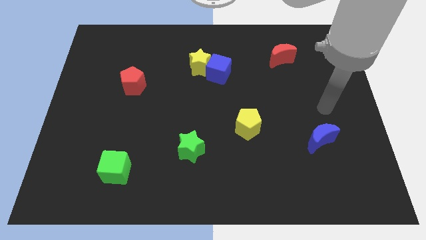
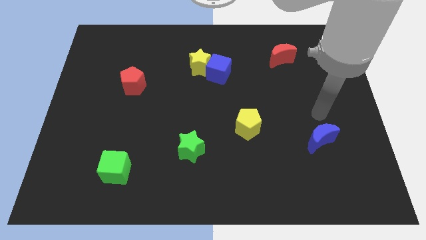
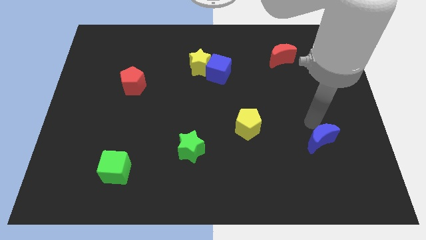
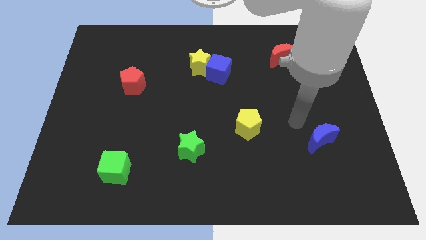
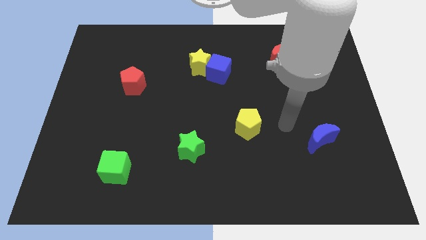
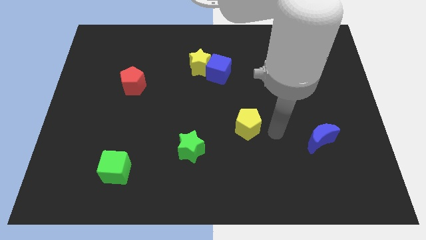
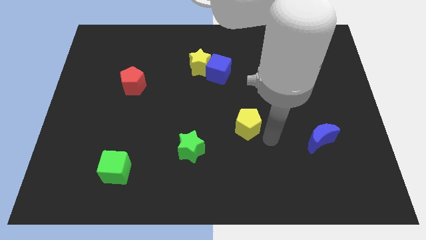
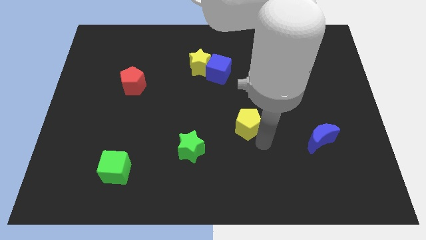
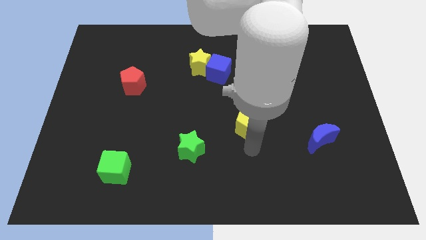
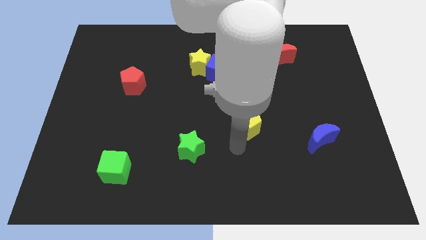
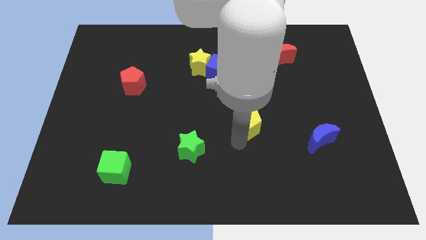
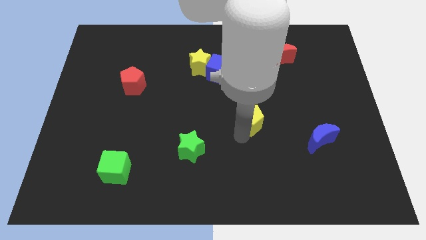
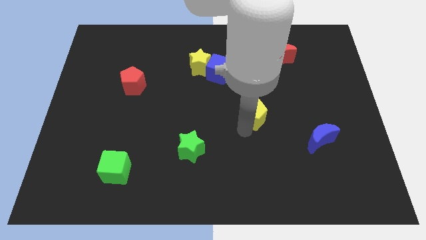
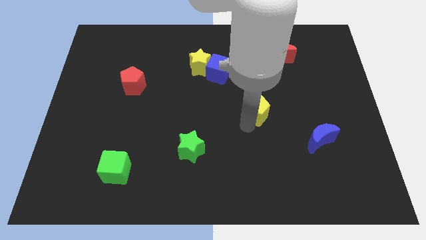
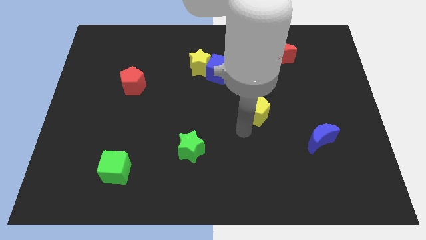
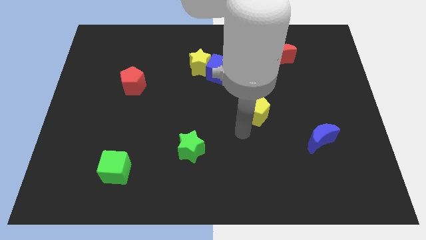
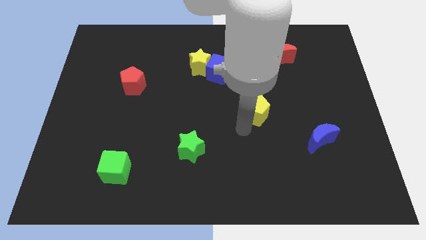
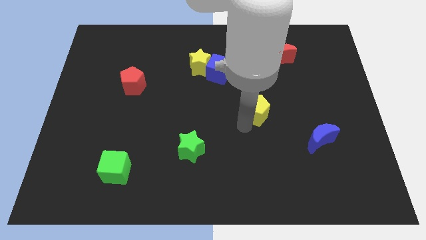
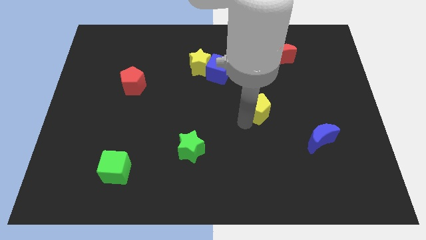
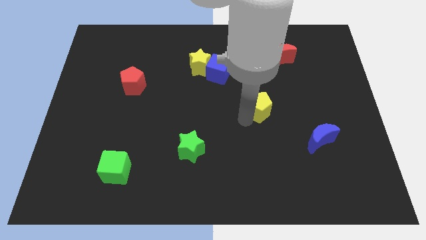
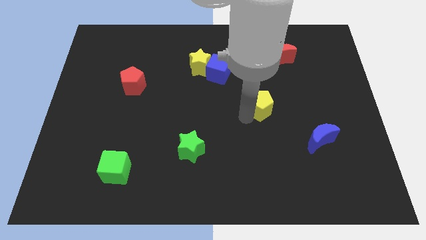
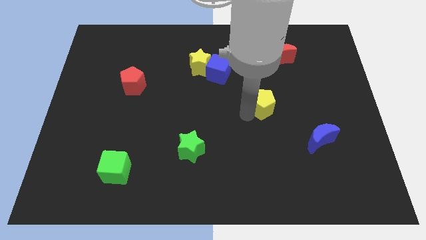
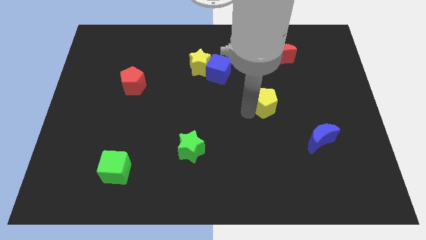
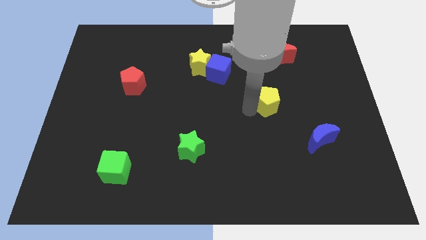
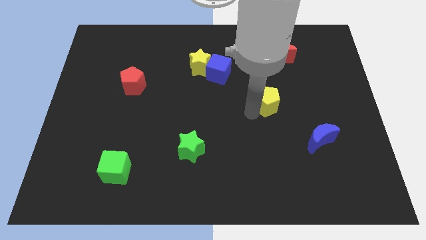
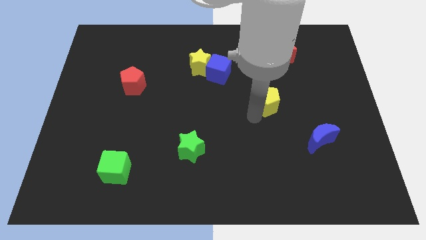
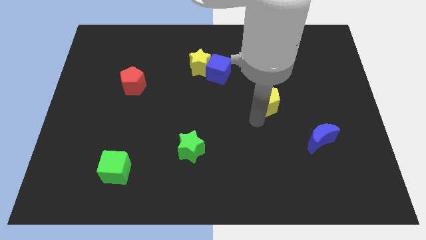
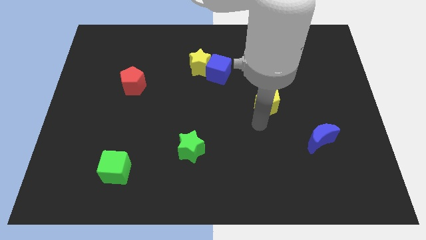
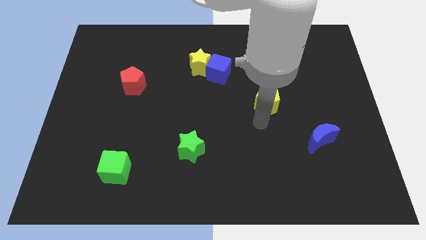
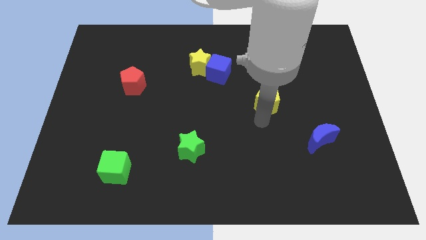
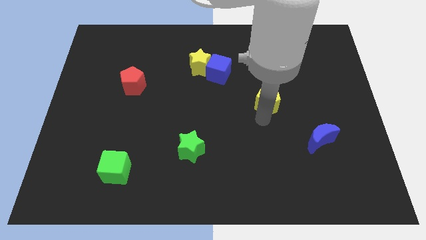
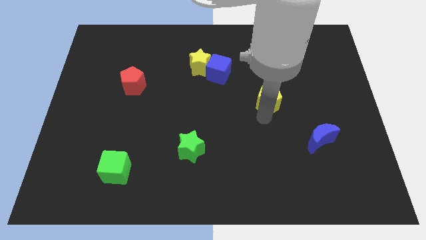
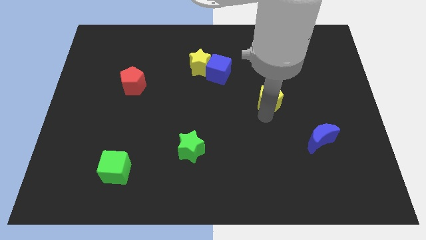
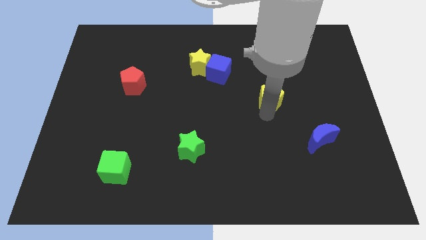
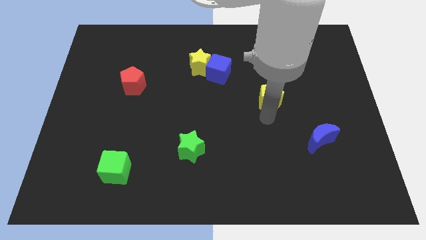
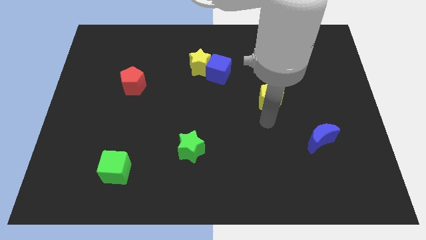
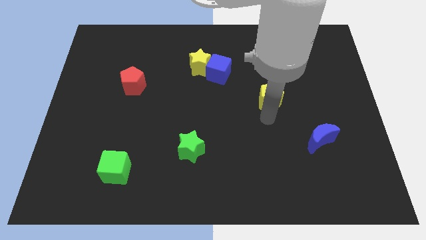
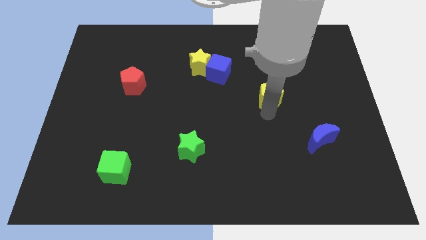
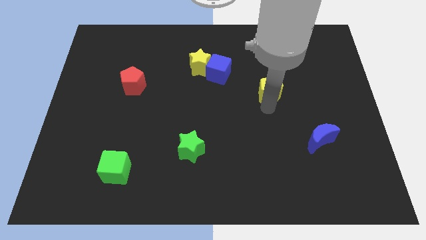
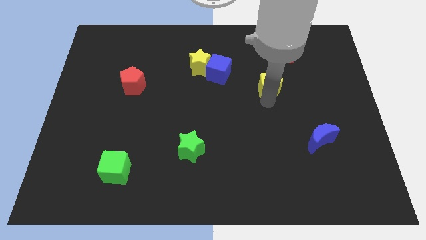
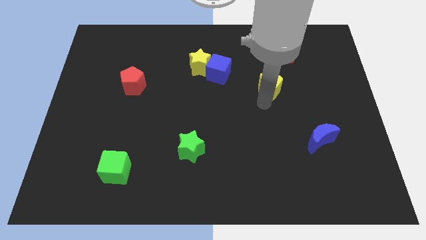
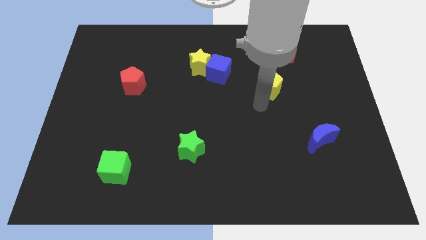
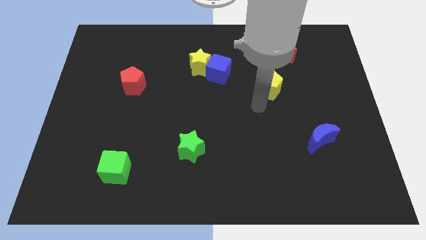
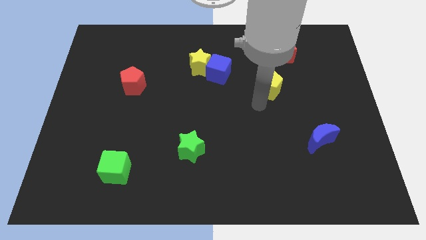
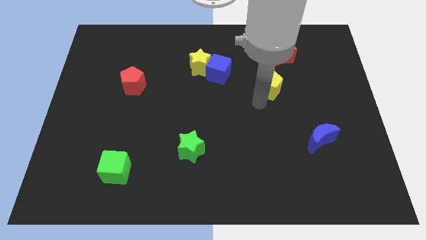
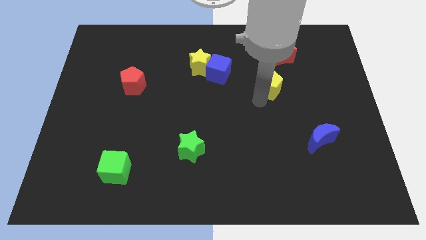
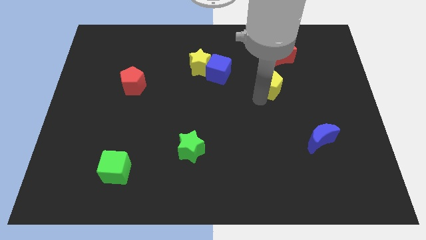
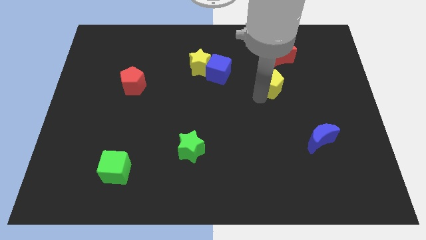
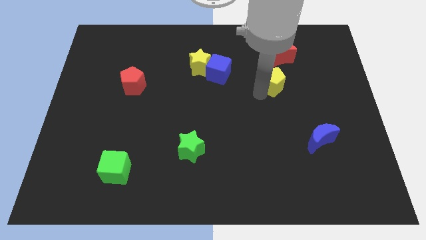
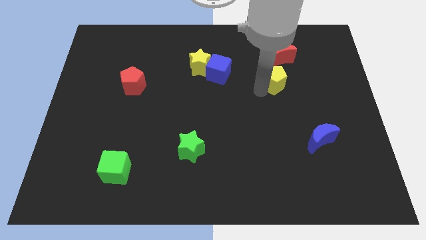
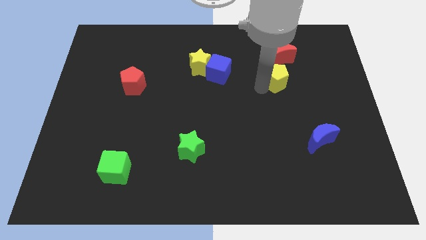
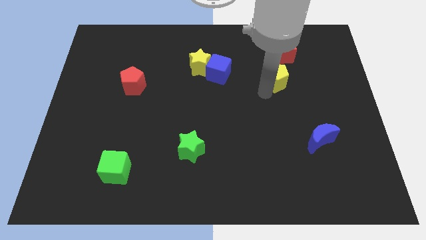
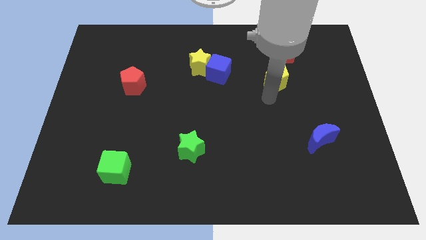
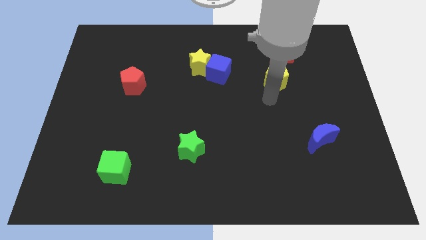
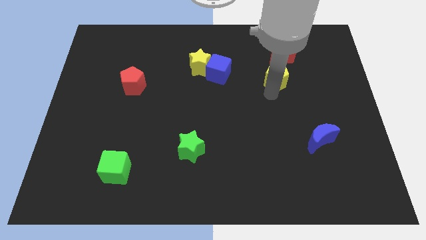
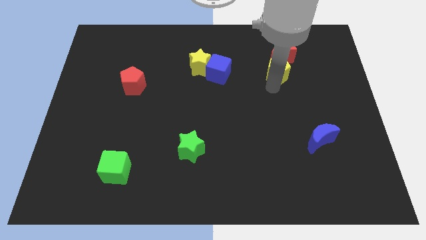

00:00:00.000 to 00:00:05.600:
slide the yellow pentagon to the red moon

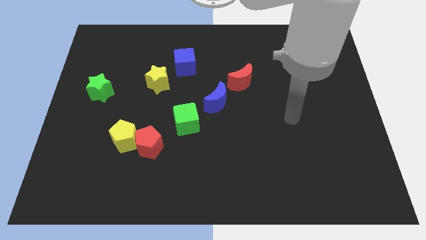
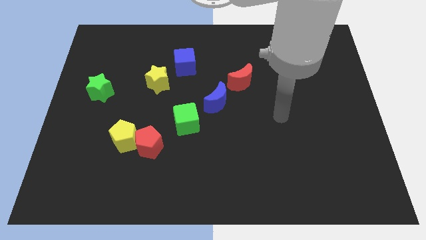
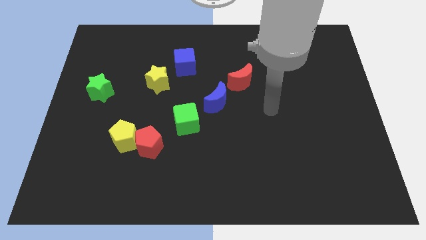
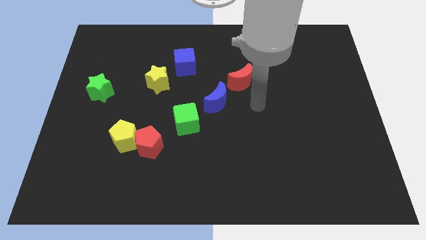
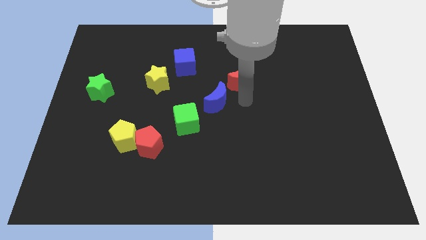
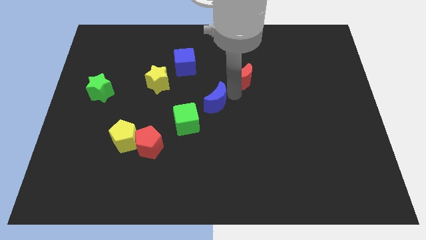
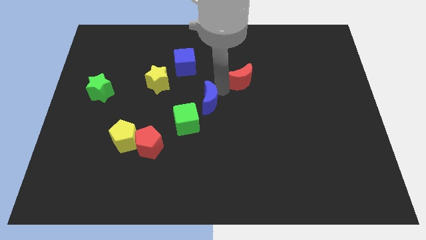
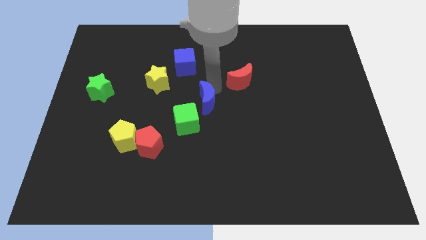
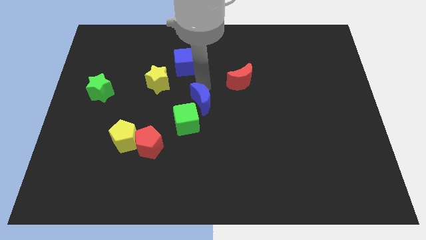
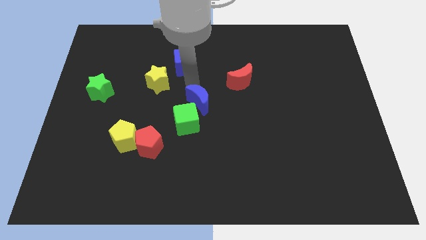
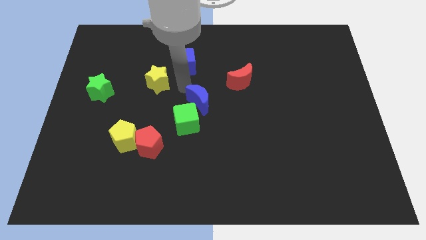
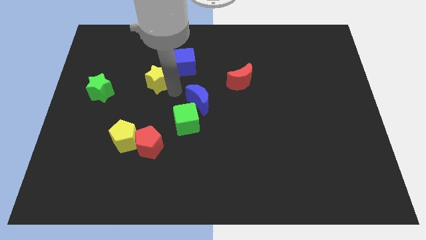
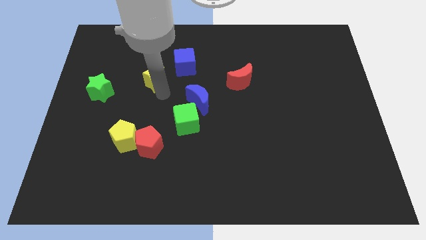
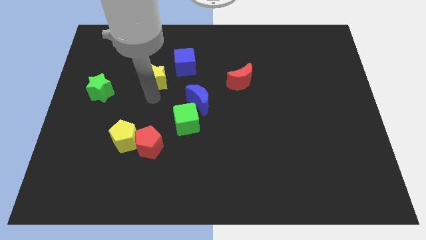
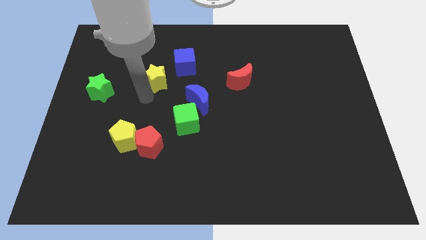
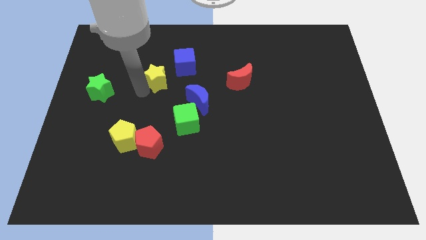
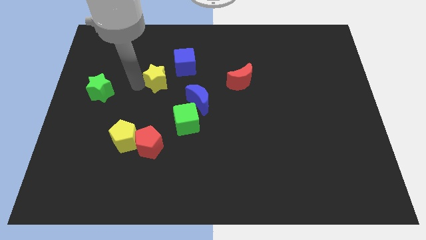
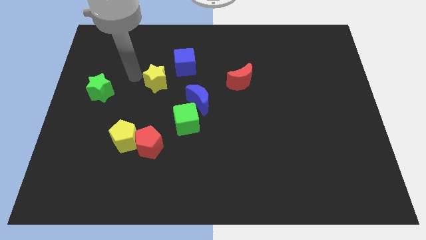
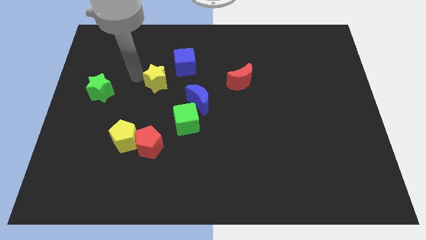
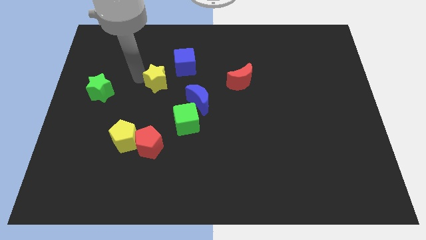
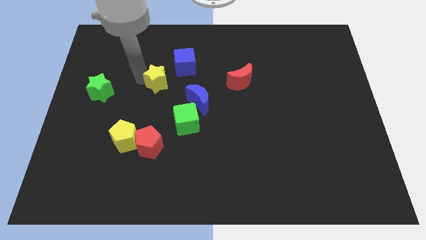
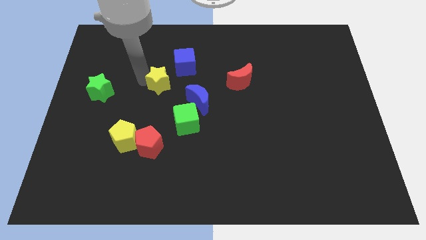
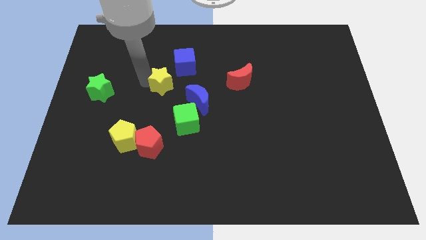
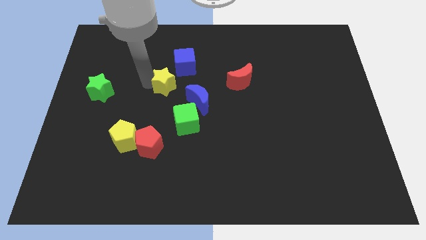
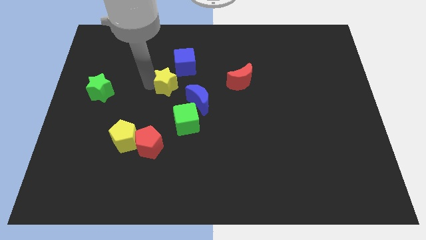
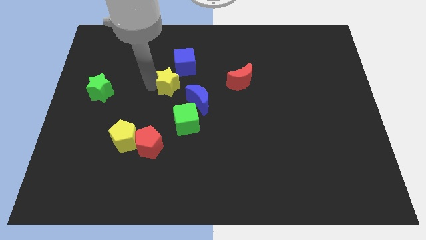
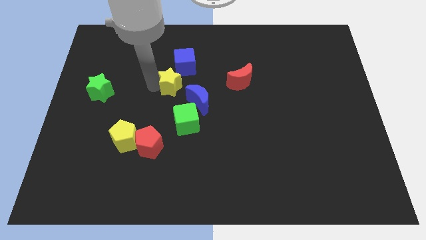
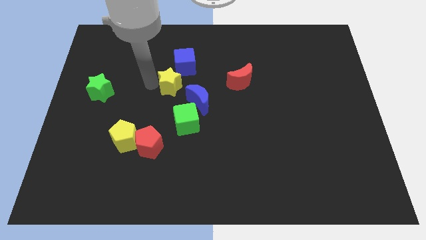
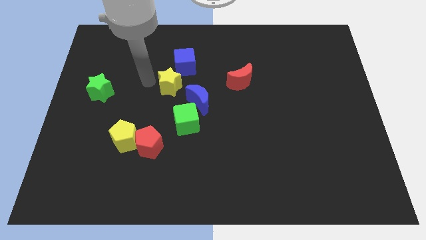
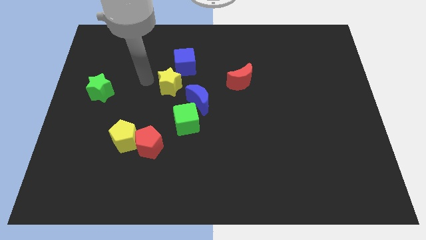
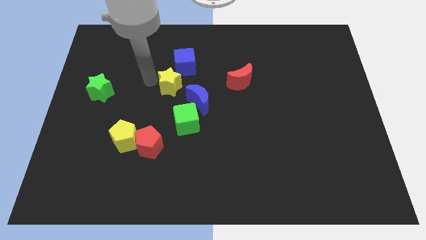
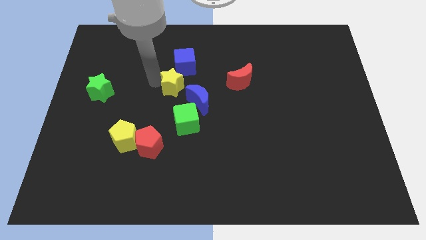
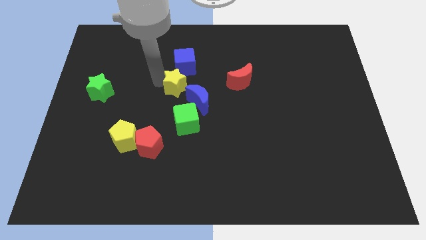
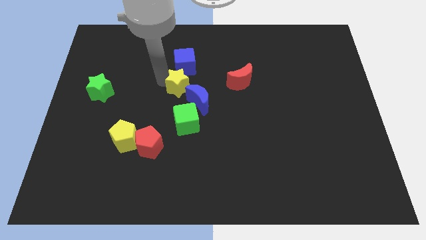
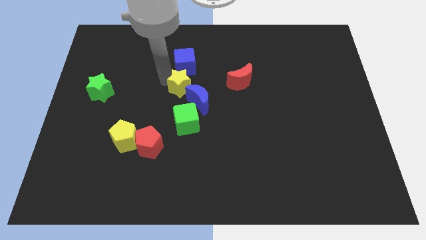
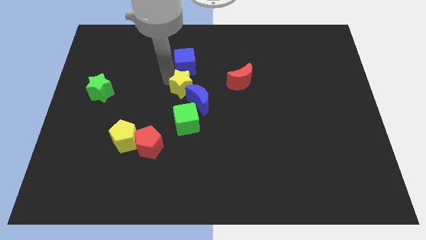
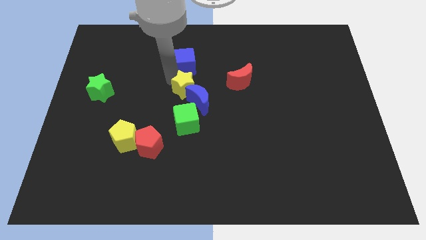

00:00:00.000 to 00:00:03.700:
move the yellow star close to the blue moon
